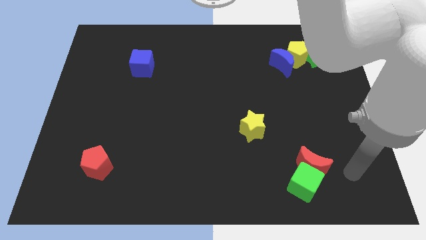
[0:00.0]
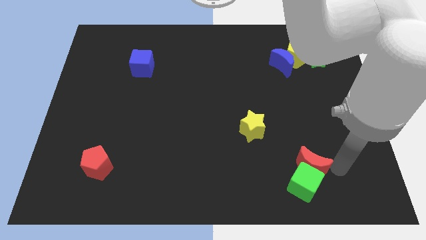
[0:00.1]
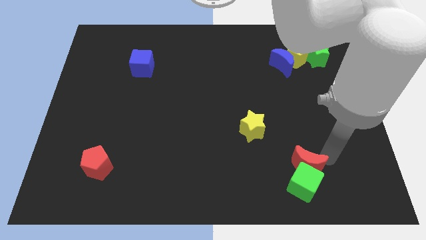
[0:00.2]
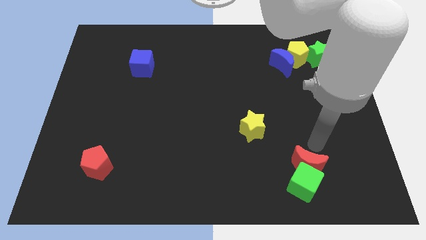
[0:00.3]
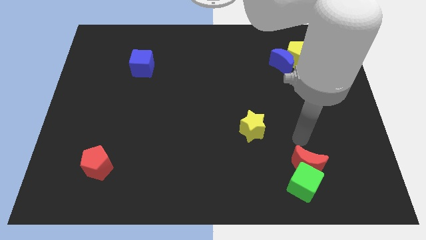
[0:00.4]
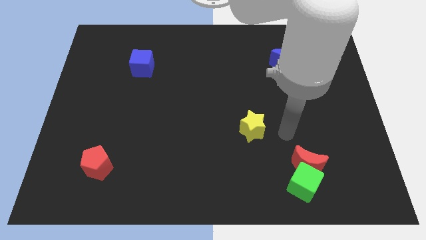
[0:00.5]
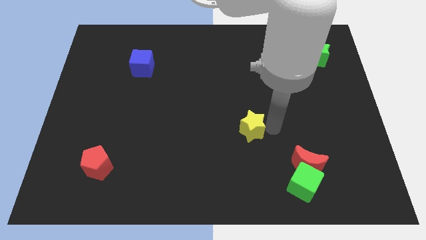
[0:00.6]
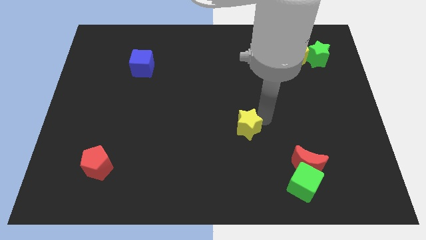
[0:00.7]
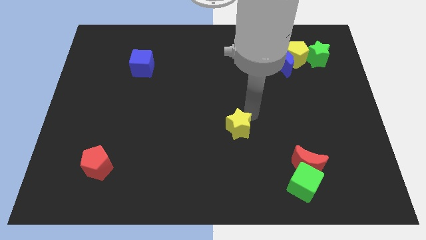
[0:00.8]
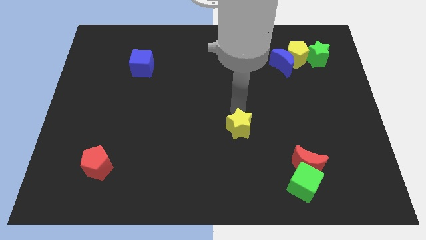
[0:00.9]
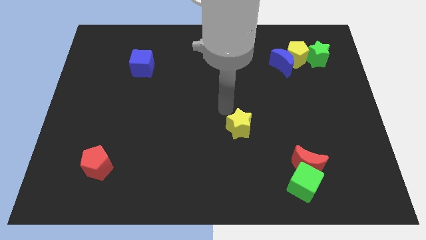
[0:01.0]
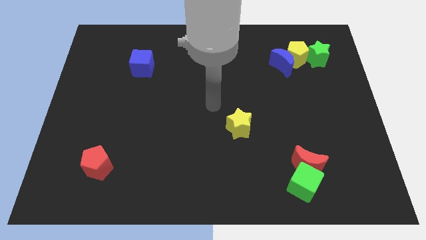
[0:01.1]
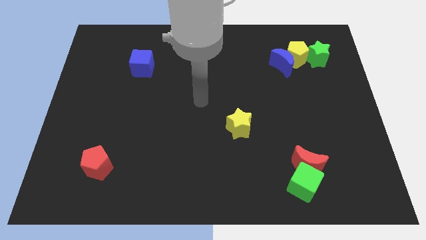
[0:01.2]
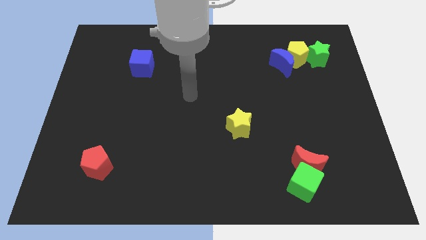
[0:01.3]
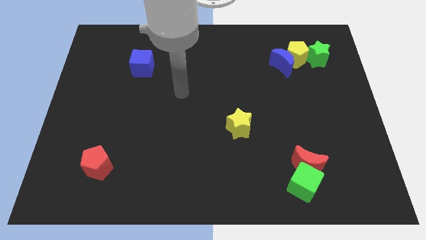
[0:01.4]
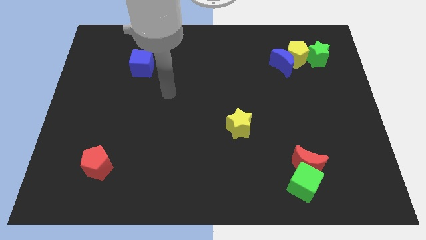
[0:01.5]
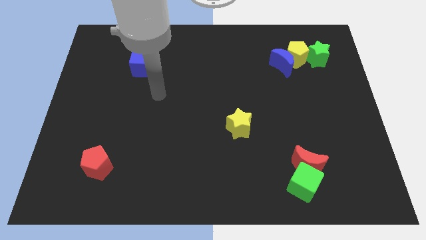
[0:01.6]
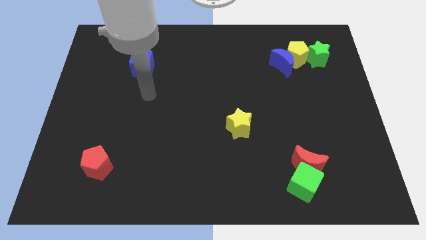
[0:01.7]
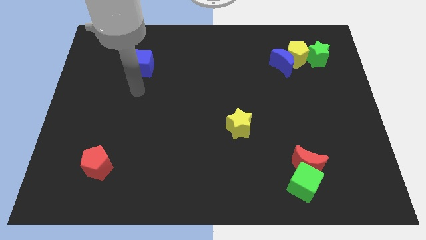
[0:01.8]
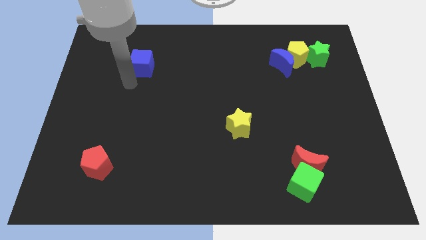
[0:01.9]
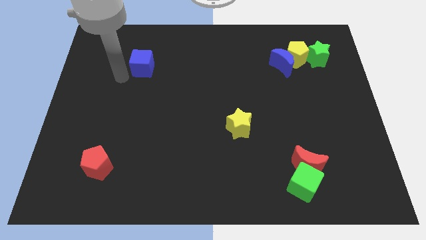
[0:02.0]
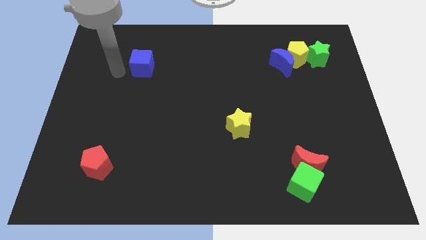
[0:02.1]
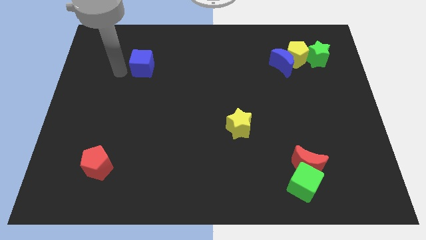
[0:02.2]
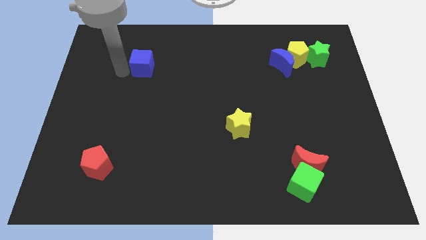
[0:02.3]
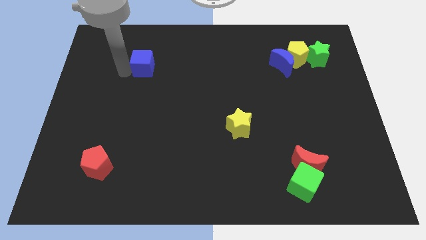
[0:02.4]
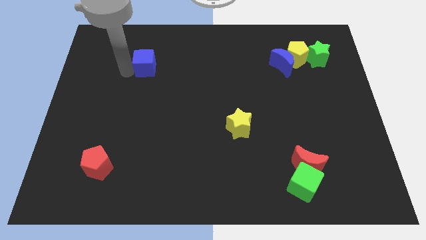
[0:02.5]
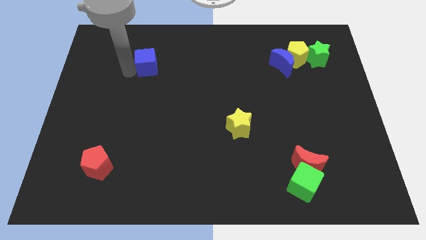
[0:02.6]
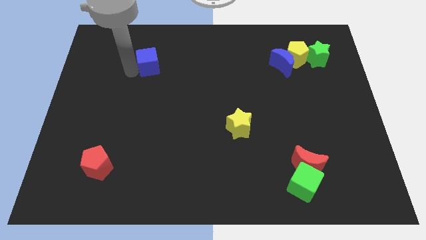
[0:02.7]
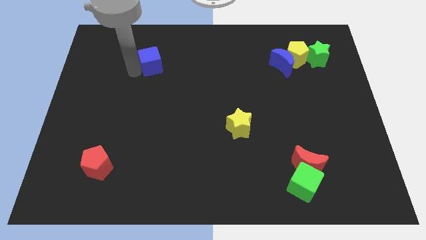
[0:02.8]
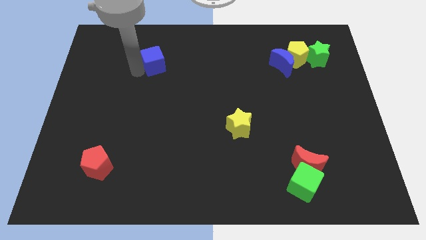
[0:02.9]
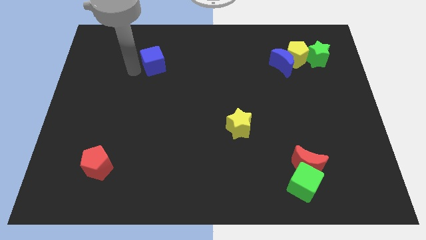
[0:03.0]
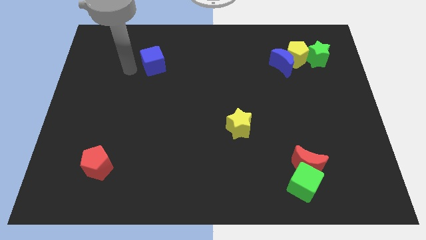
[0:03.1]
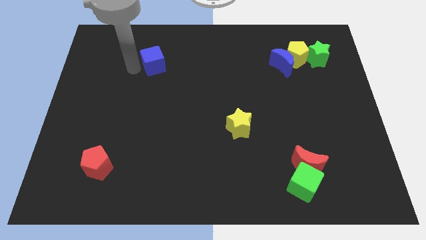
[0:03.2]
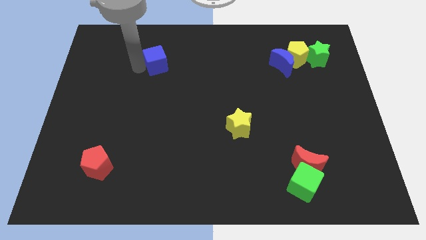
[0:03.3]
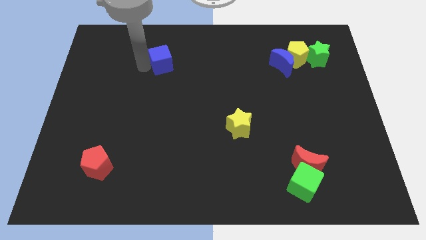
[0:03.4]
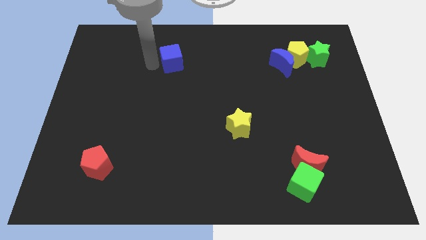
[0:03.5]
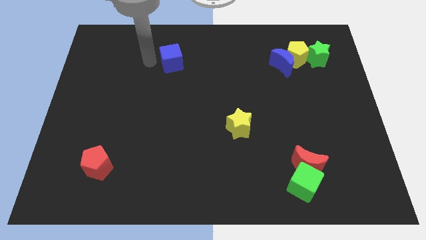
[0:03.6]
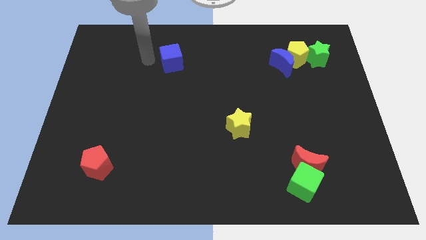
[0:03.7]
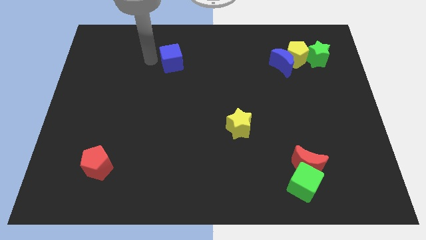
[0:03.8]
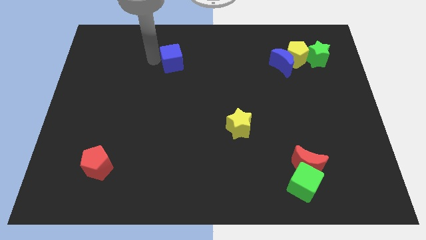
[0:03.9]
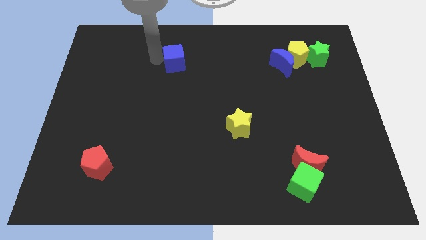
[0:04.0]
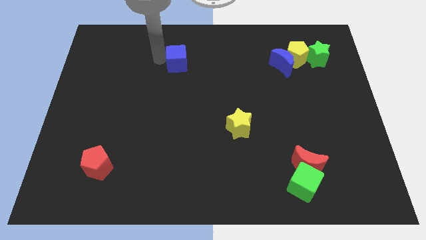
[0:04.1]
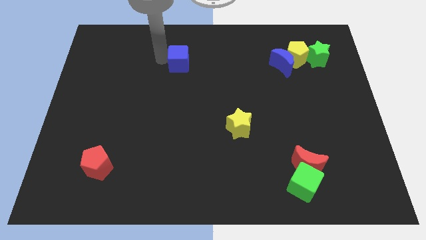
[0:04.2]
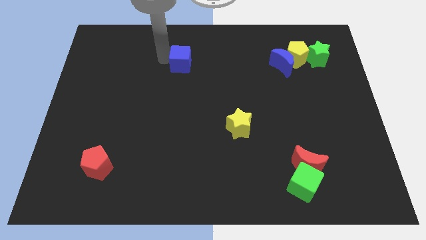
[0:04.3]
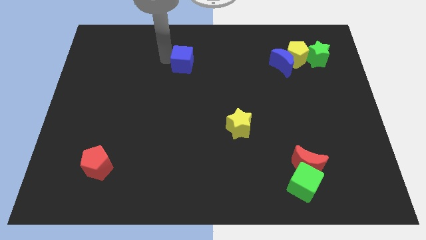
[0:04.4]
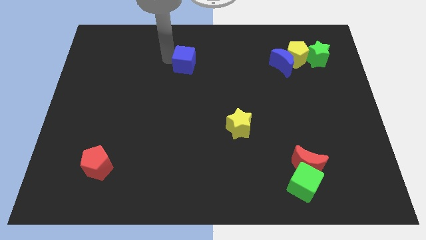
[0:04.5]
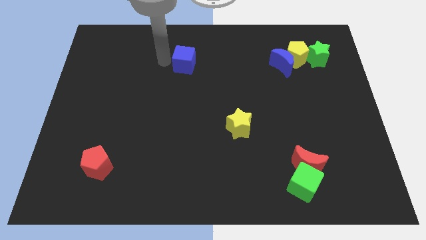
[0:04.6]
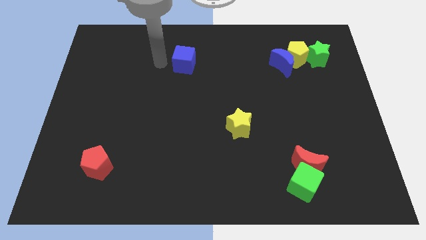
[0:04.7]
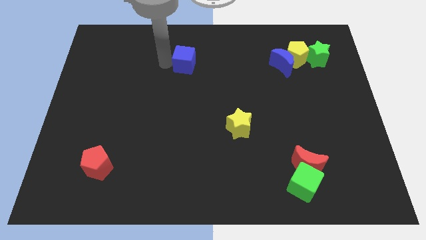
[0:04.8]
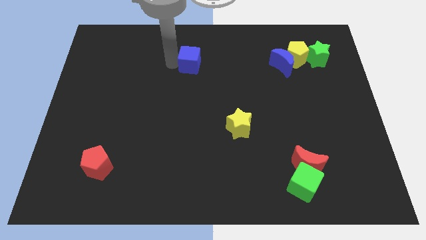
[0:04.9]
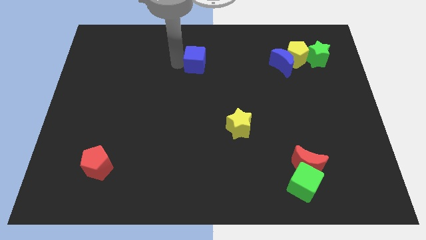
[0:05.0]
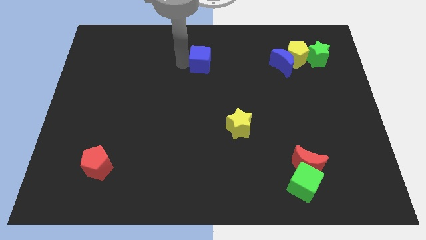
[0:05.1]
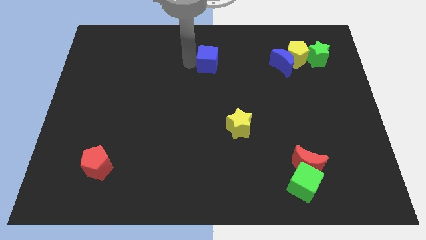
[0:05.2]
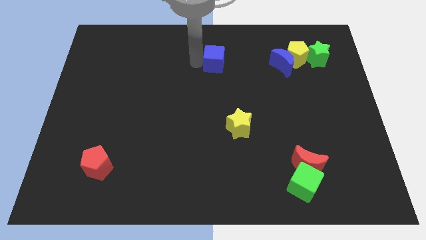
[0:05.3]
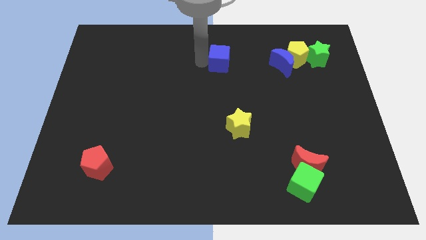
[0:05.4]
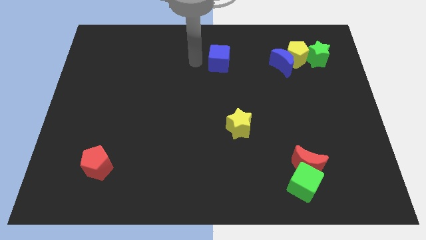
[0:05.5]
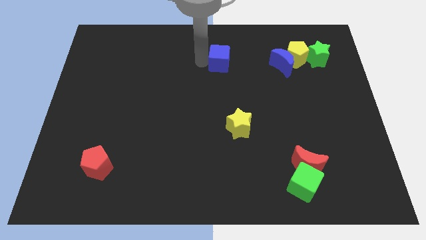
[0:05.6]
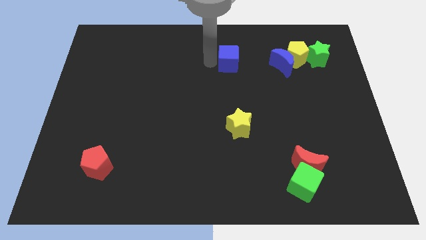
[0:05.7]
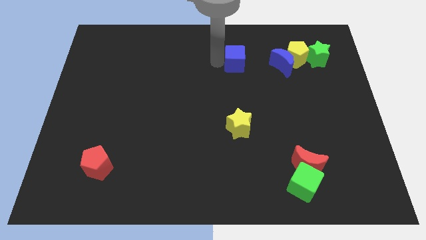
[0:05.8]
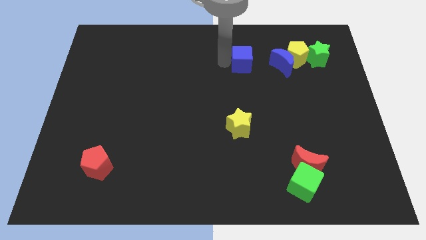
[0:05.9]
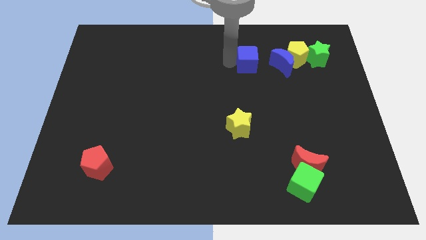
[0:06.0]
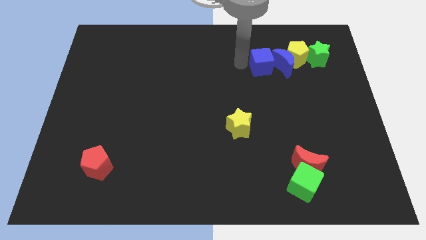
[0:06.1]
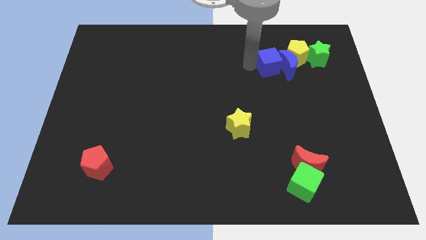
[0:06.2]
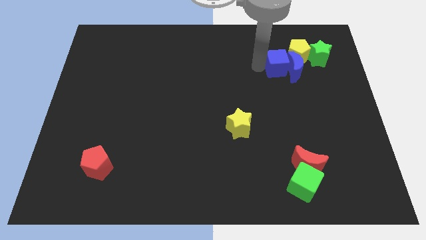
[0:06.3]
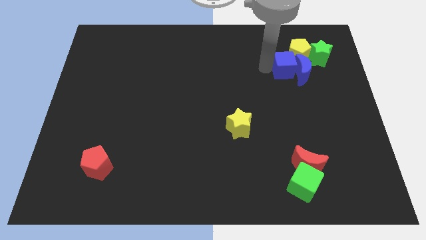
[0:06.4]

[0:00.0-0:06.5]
put the blue cube to the yellow pentagon

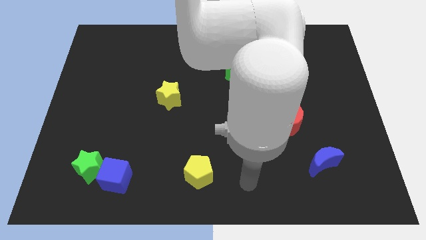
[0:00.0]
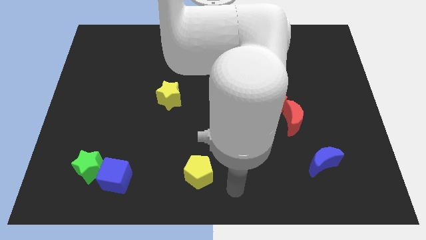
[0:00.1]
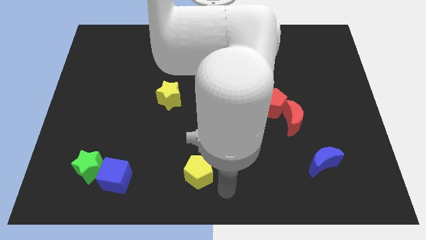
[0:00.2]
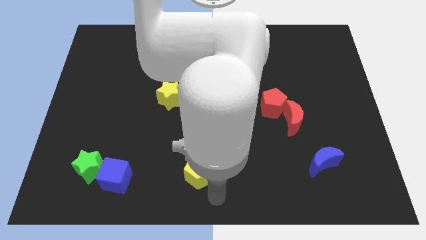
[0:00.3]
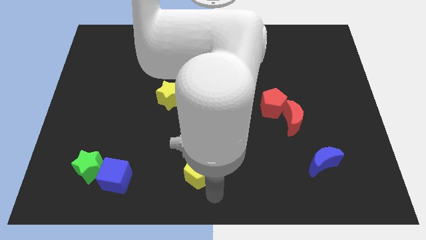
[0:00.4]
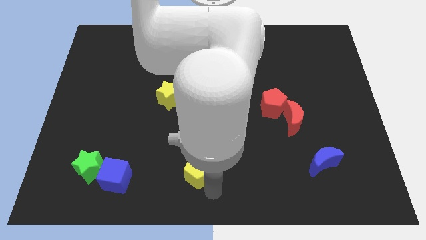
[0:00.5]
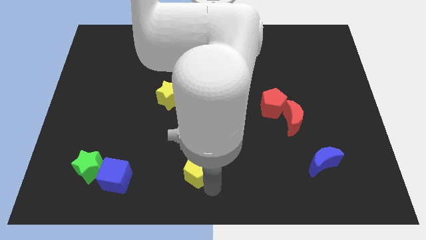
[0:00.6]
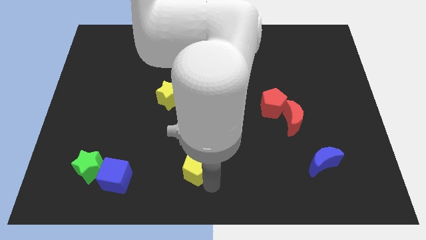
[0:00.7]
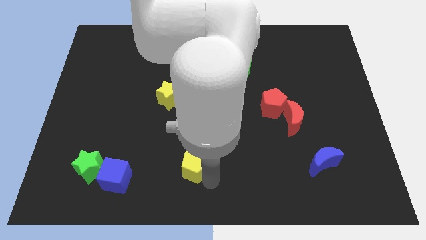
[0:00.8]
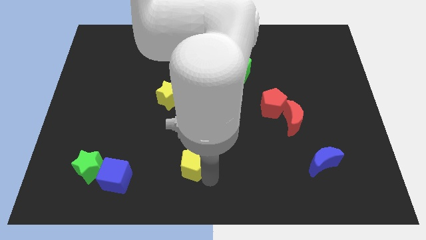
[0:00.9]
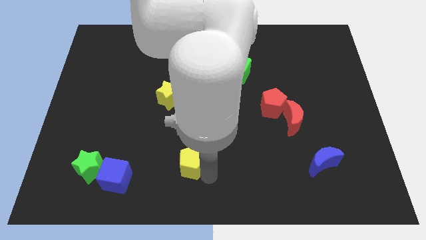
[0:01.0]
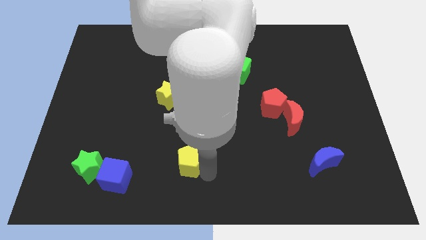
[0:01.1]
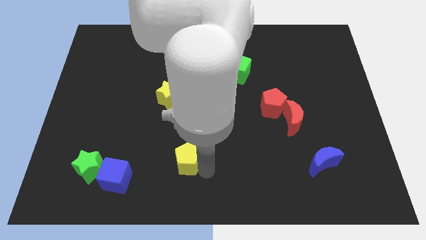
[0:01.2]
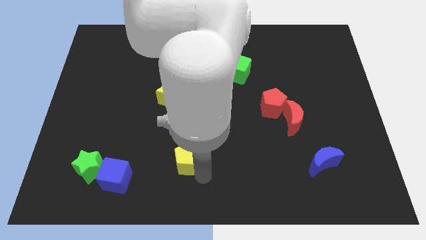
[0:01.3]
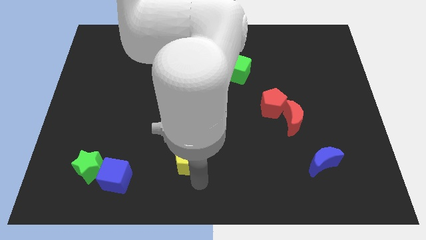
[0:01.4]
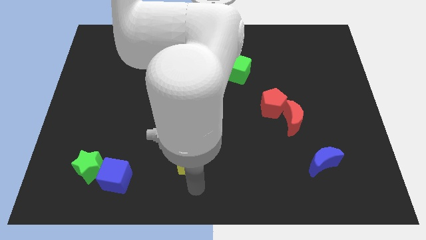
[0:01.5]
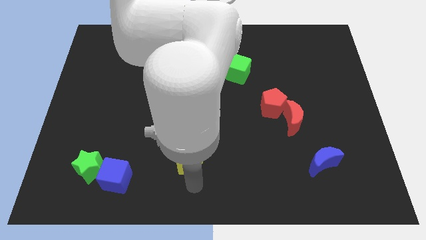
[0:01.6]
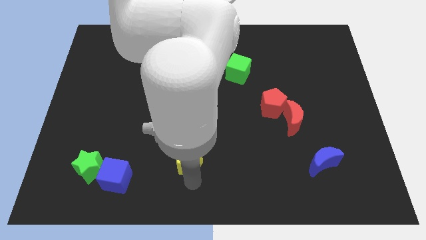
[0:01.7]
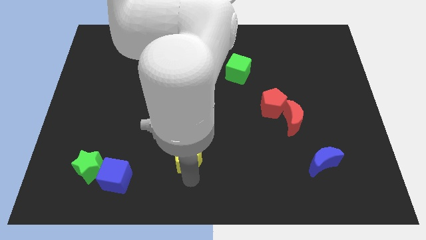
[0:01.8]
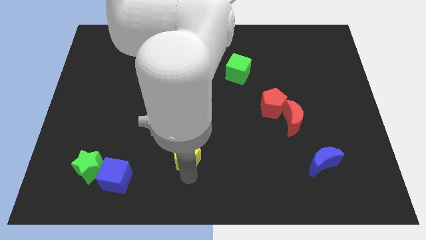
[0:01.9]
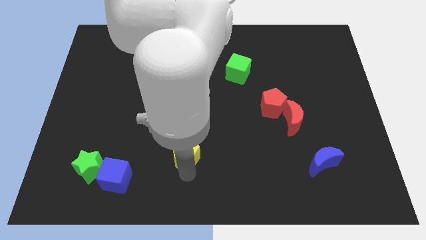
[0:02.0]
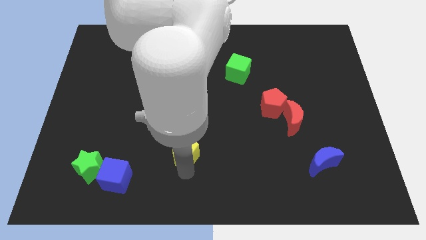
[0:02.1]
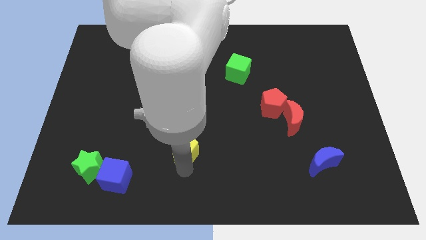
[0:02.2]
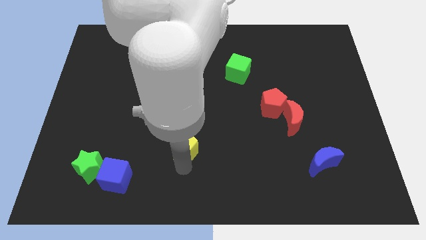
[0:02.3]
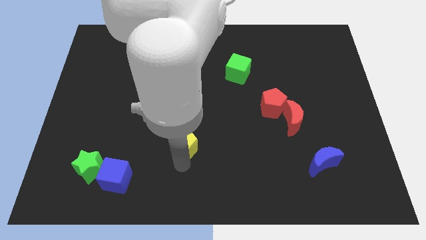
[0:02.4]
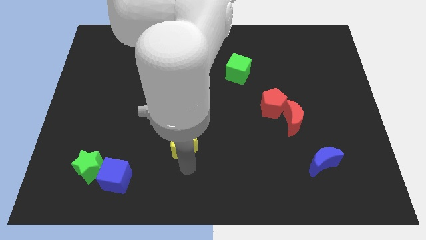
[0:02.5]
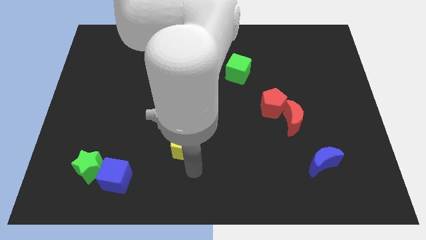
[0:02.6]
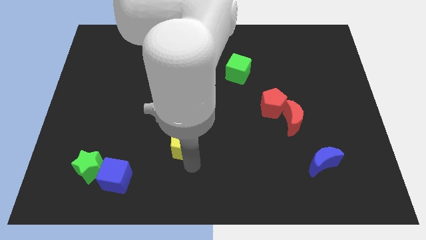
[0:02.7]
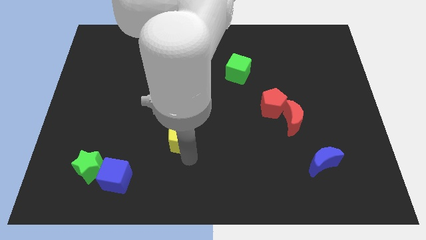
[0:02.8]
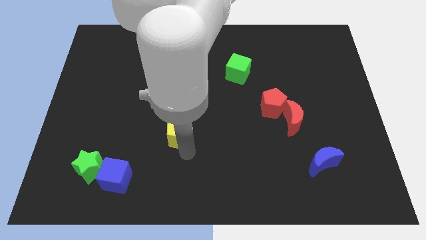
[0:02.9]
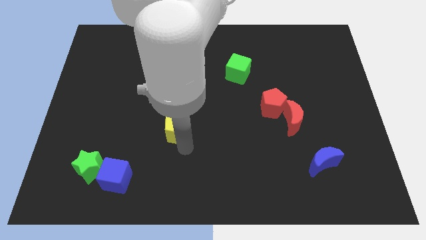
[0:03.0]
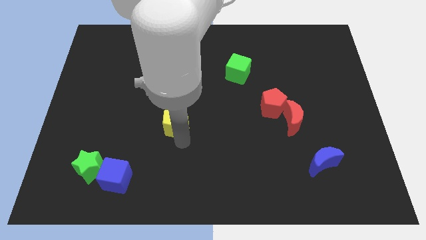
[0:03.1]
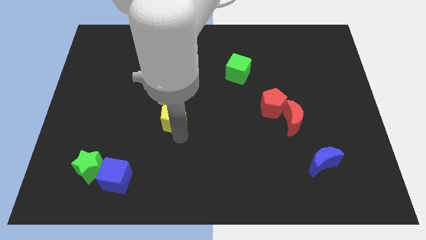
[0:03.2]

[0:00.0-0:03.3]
put the yellow pentagon close to the yellow star
